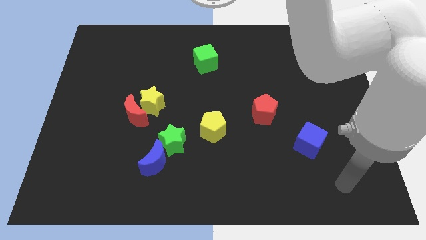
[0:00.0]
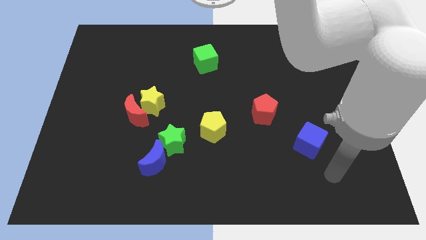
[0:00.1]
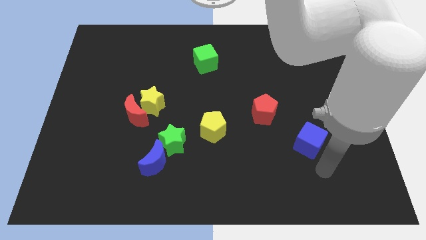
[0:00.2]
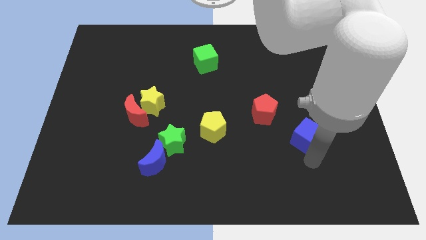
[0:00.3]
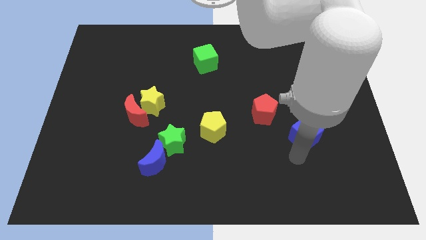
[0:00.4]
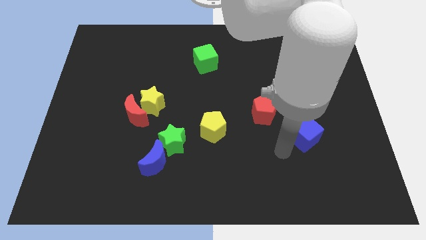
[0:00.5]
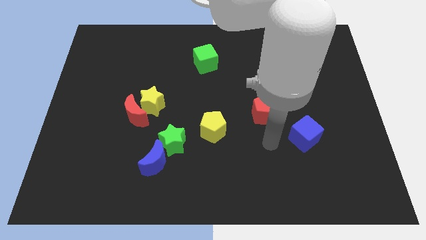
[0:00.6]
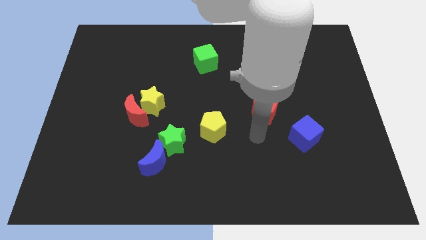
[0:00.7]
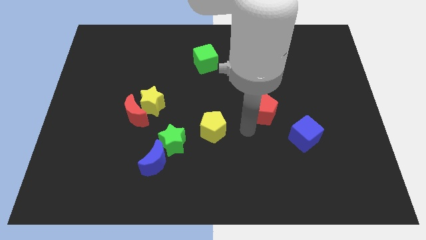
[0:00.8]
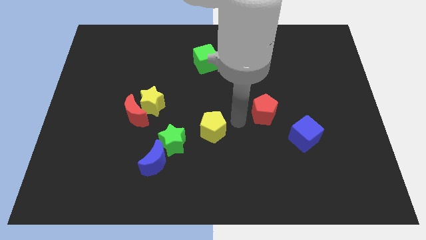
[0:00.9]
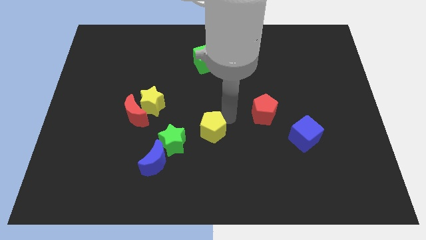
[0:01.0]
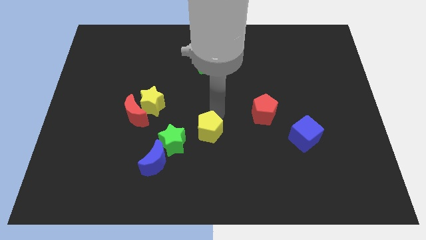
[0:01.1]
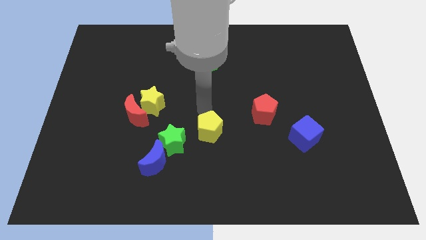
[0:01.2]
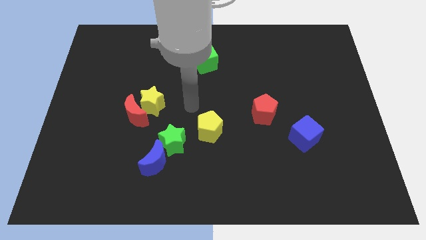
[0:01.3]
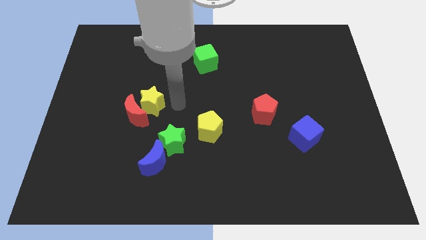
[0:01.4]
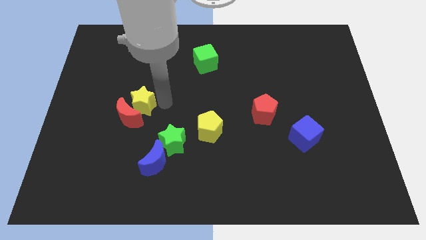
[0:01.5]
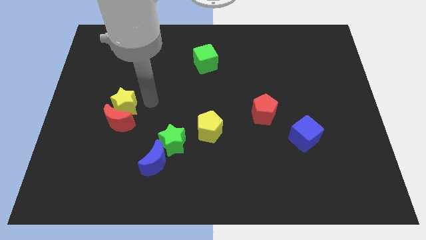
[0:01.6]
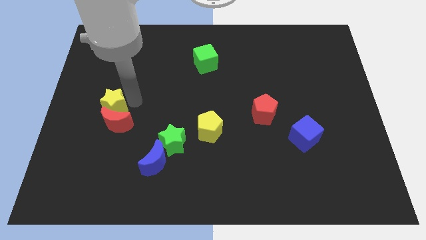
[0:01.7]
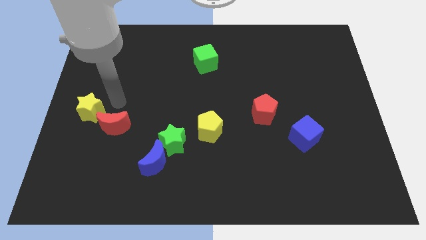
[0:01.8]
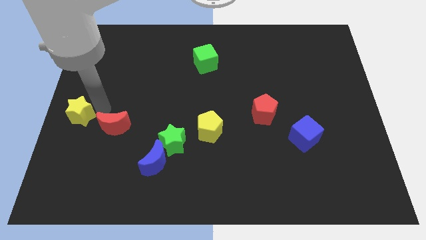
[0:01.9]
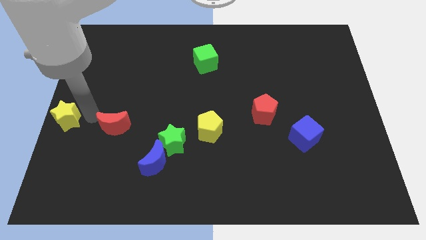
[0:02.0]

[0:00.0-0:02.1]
move the red moon away from the yellow star

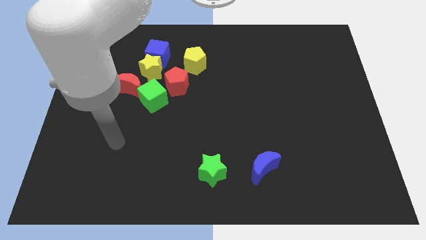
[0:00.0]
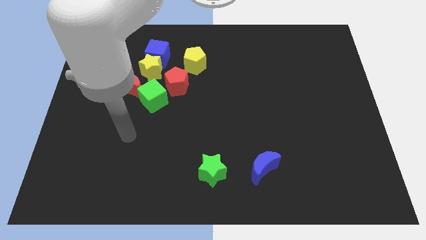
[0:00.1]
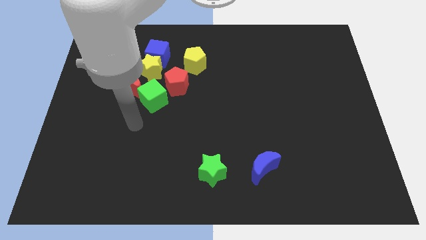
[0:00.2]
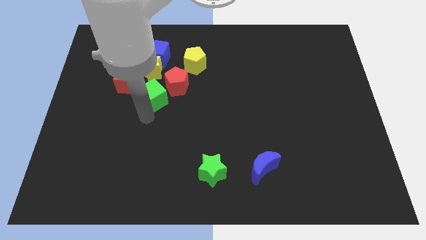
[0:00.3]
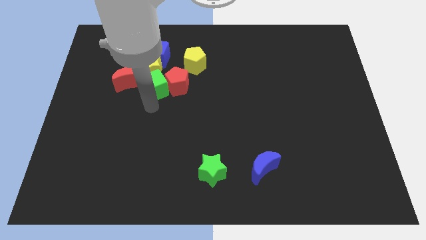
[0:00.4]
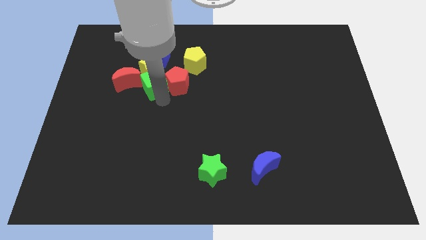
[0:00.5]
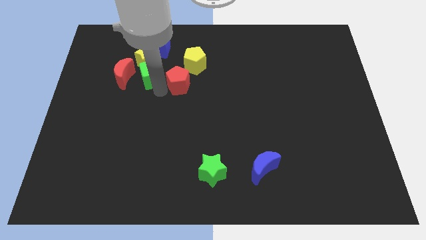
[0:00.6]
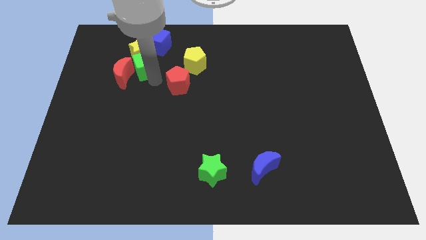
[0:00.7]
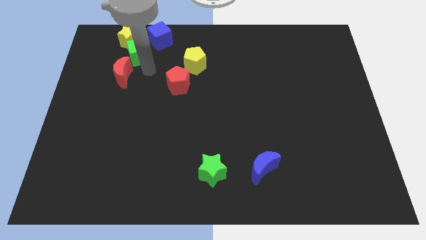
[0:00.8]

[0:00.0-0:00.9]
move the red moon away from the green cube and yellow star

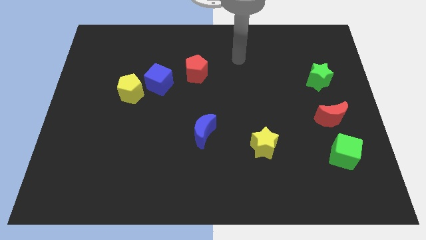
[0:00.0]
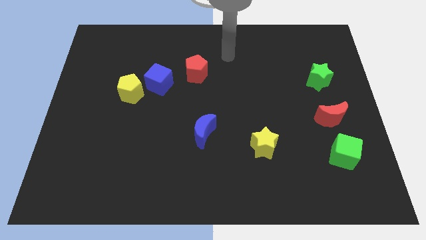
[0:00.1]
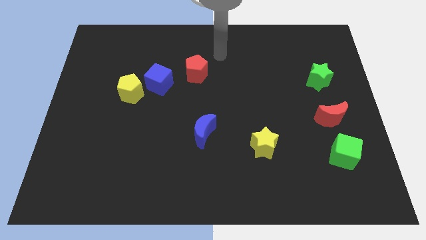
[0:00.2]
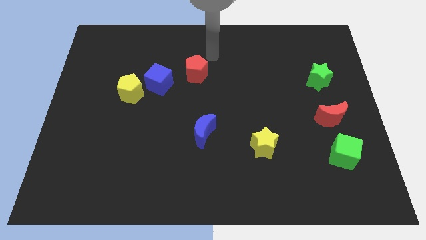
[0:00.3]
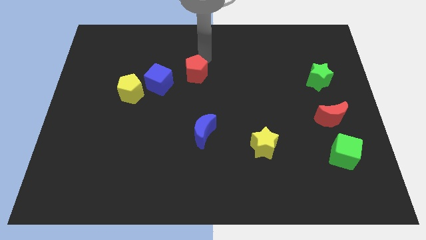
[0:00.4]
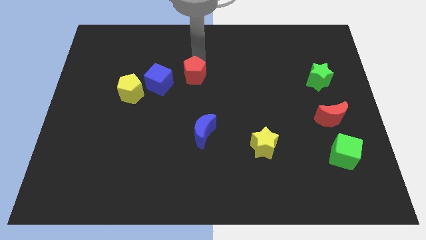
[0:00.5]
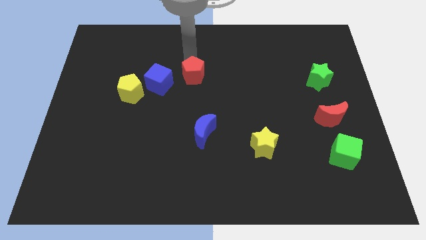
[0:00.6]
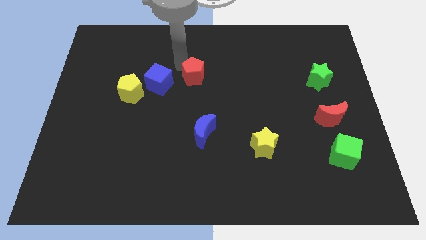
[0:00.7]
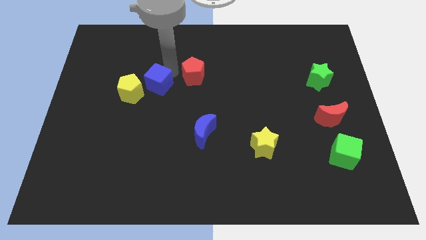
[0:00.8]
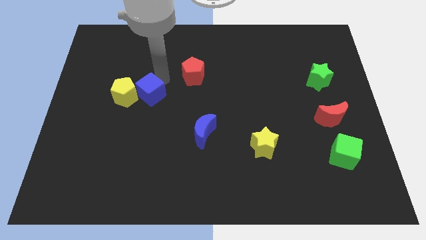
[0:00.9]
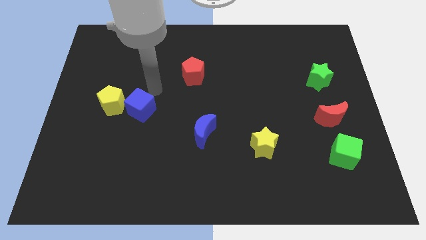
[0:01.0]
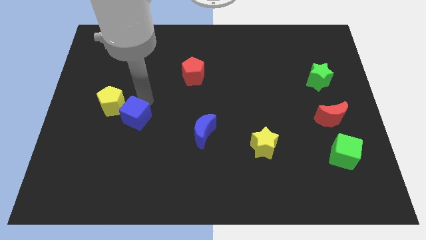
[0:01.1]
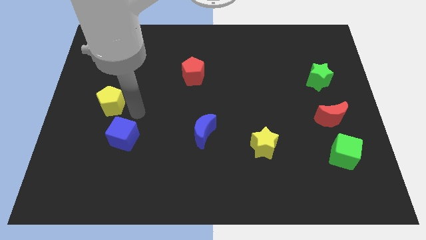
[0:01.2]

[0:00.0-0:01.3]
separate the yellow pentagon from the blue cube

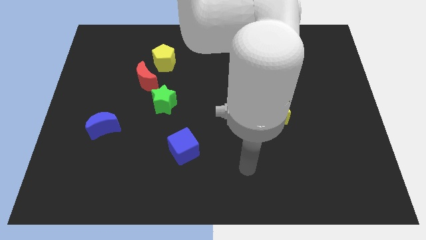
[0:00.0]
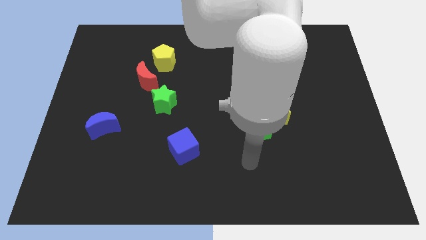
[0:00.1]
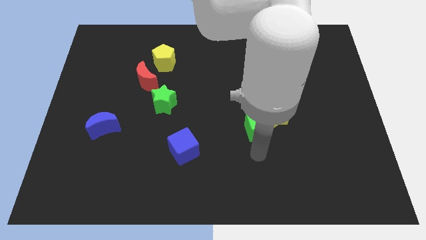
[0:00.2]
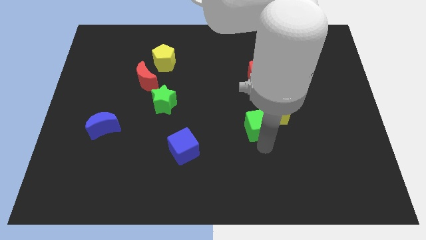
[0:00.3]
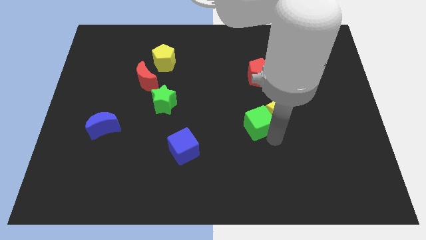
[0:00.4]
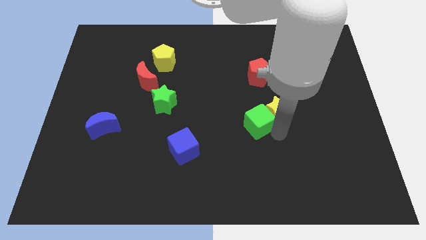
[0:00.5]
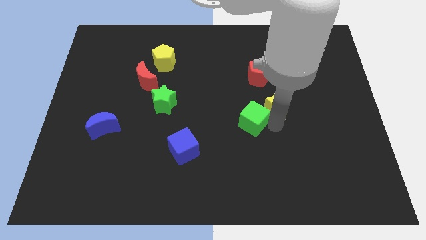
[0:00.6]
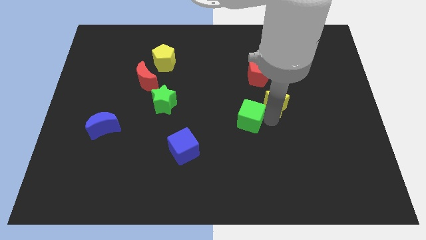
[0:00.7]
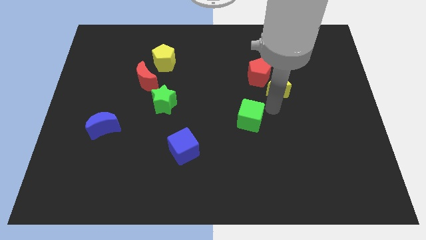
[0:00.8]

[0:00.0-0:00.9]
separate the green cube from the yellow star

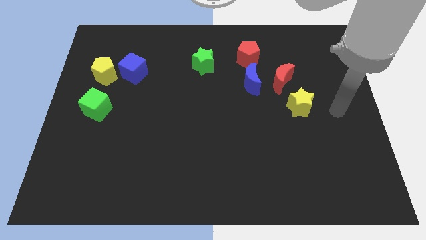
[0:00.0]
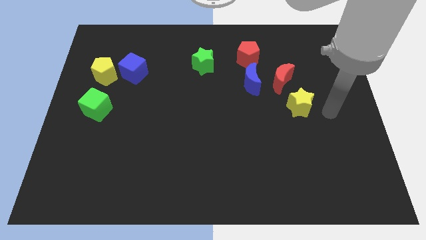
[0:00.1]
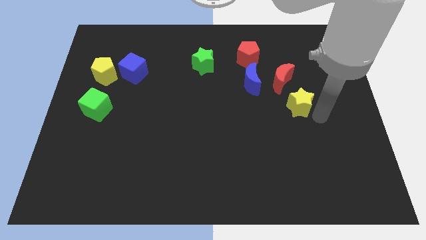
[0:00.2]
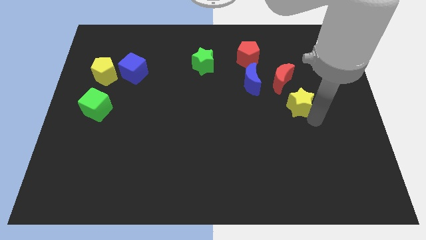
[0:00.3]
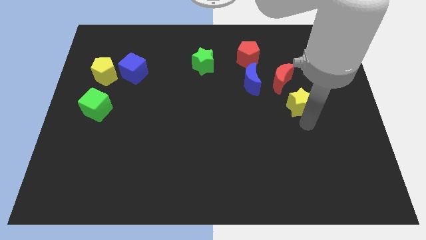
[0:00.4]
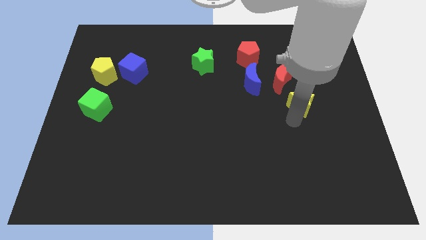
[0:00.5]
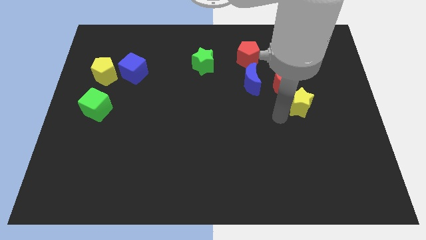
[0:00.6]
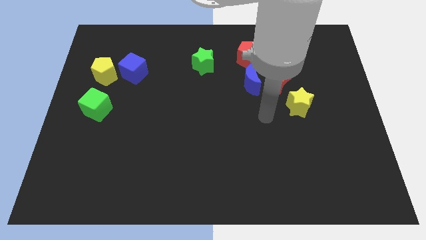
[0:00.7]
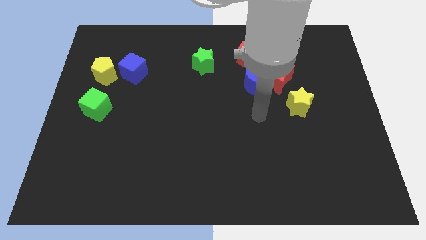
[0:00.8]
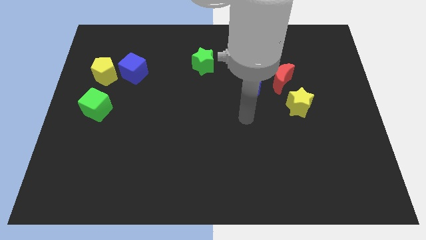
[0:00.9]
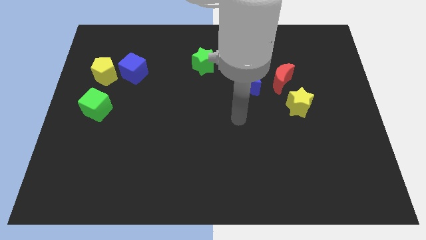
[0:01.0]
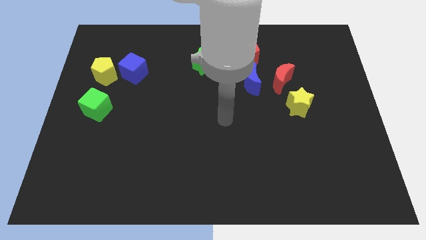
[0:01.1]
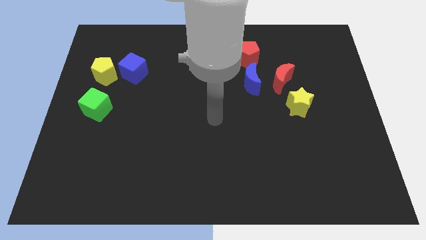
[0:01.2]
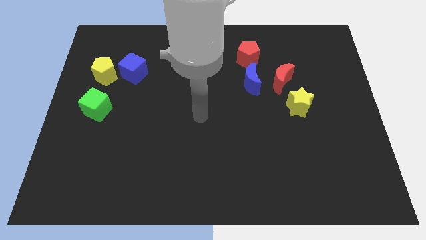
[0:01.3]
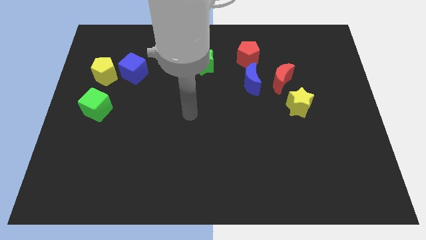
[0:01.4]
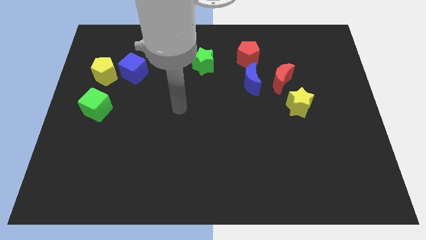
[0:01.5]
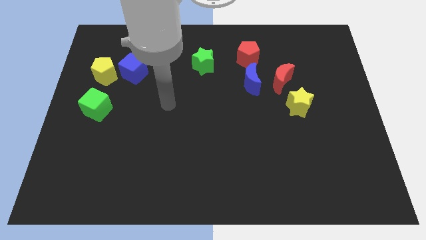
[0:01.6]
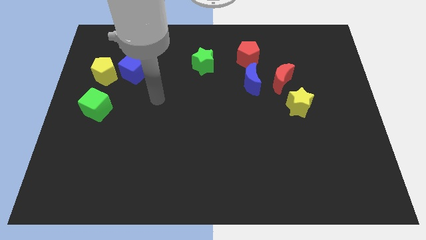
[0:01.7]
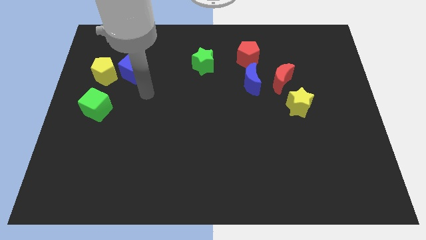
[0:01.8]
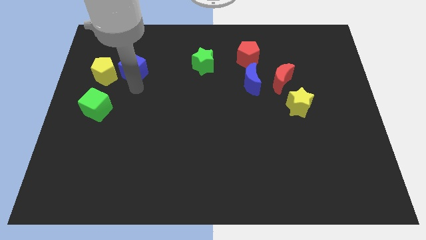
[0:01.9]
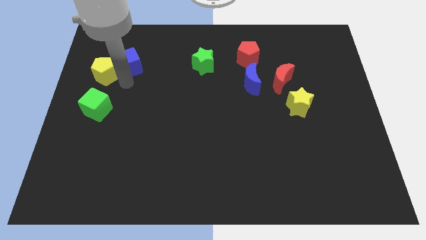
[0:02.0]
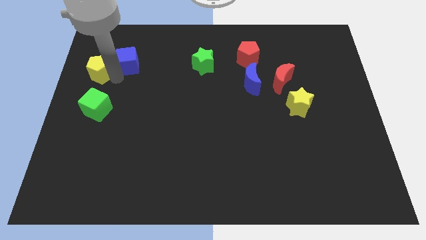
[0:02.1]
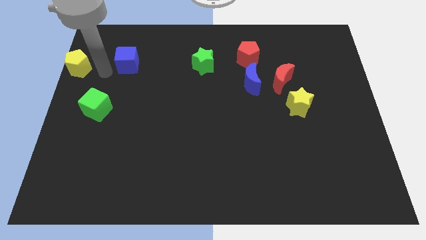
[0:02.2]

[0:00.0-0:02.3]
move the blue cube away from the yellow pentagon

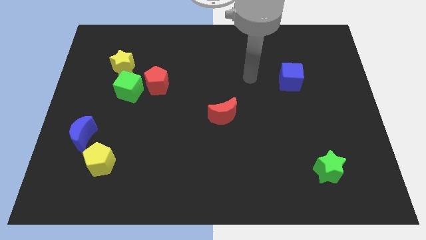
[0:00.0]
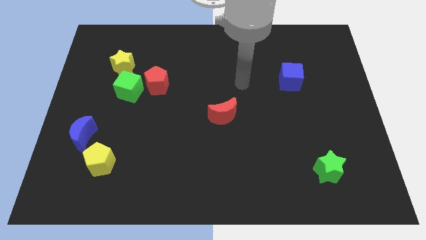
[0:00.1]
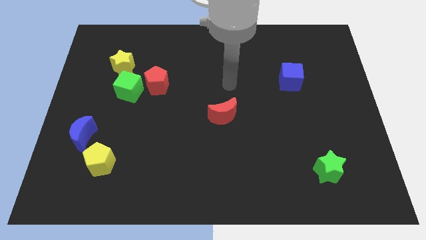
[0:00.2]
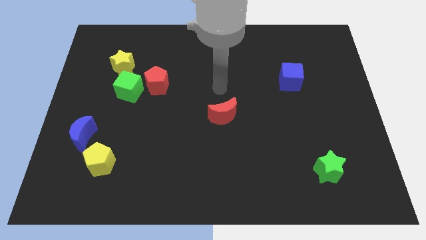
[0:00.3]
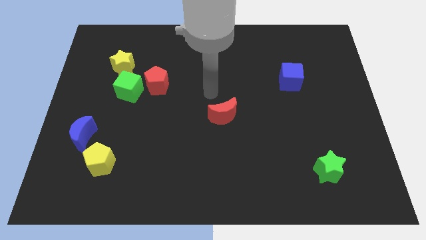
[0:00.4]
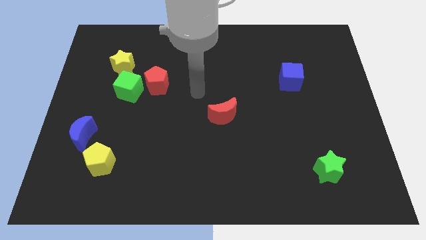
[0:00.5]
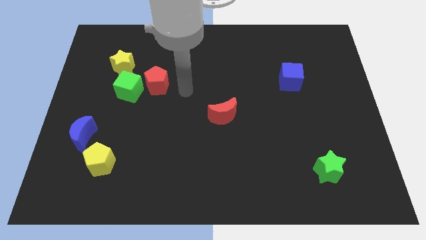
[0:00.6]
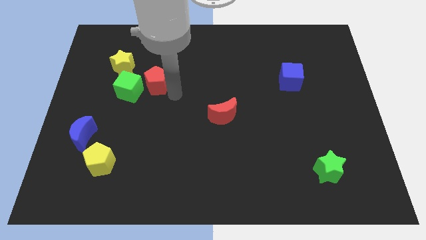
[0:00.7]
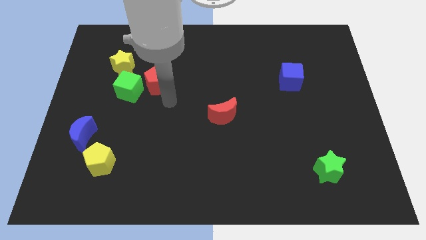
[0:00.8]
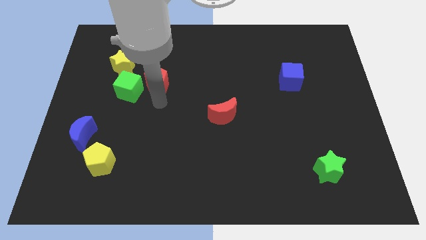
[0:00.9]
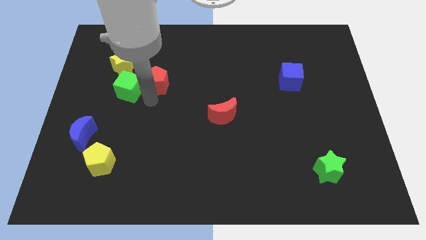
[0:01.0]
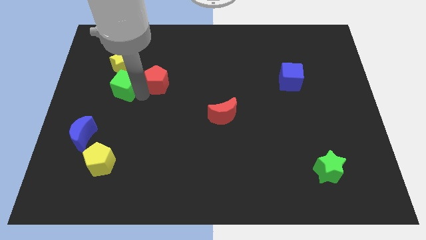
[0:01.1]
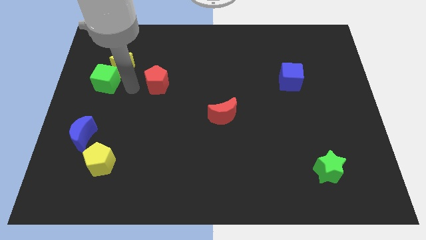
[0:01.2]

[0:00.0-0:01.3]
separate the red pentagon from the green cube

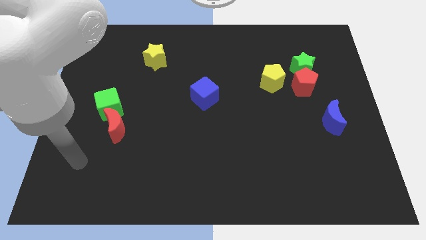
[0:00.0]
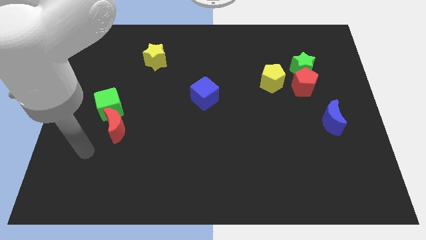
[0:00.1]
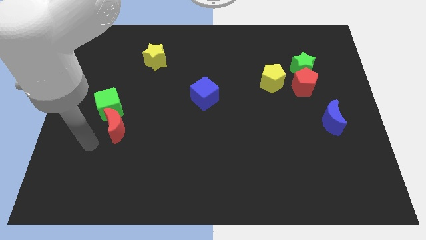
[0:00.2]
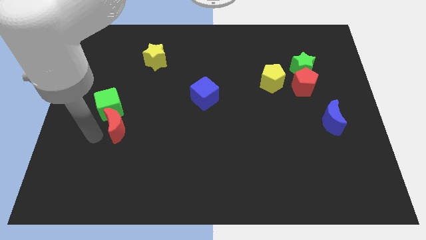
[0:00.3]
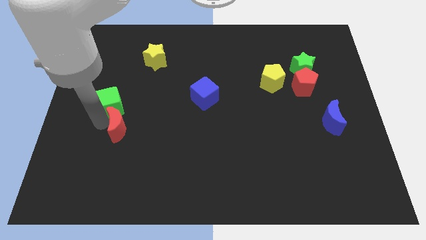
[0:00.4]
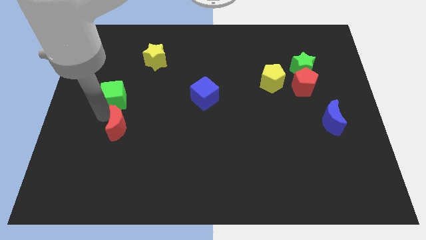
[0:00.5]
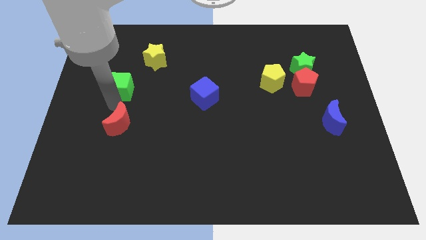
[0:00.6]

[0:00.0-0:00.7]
pull the red moon apart from the green cube

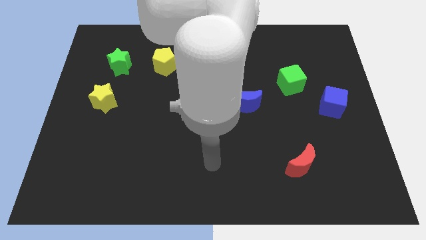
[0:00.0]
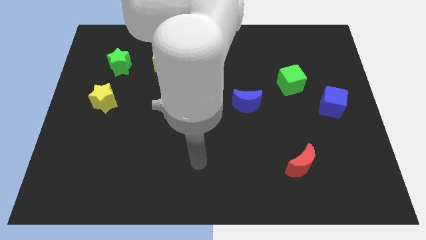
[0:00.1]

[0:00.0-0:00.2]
pull the red pentagon apart from the yellow pentagon
